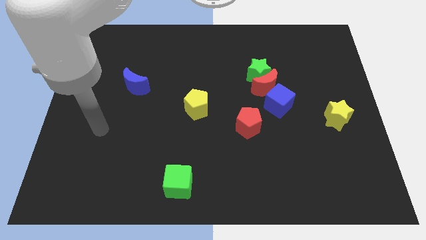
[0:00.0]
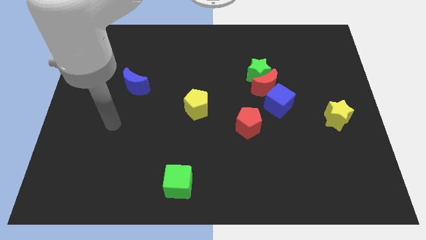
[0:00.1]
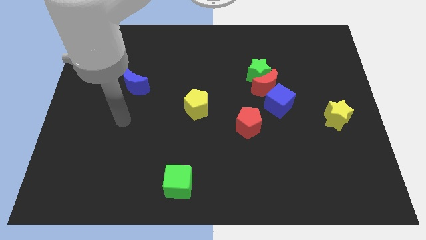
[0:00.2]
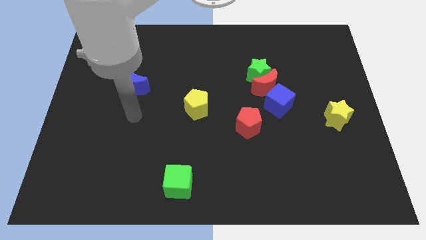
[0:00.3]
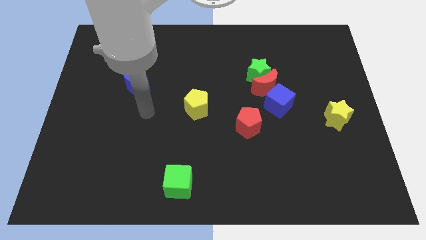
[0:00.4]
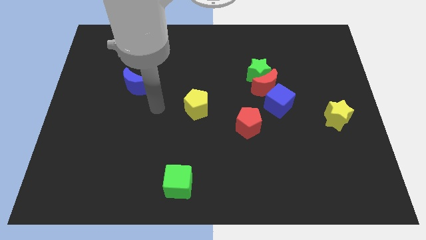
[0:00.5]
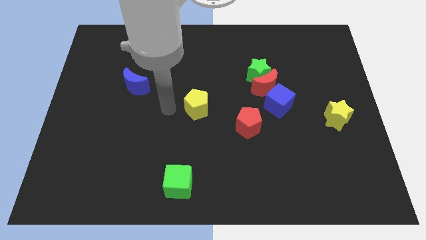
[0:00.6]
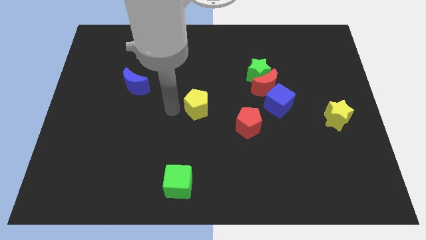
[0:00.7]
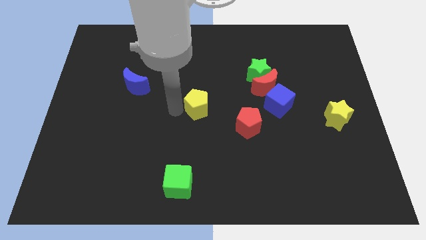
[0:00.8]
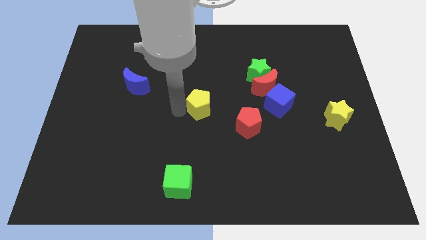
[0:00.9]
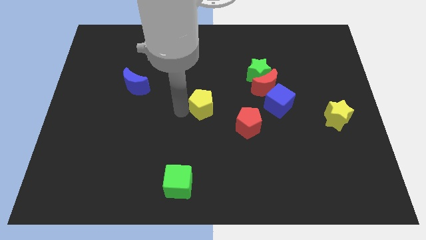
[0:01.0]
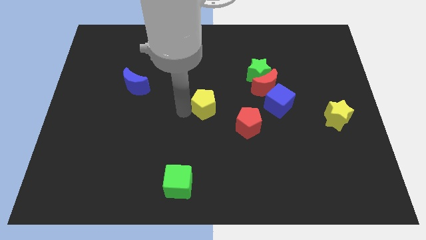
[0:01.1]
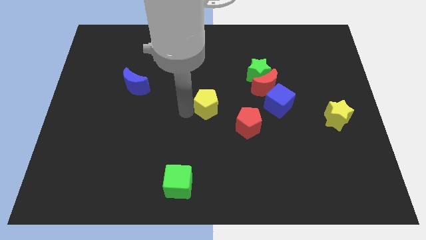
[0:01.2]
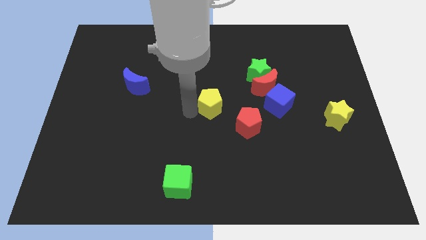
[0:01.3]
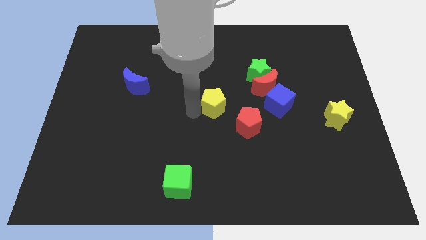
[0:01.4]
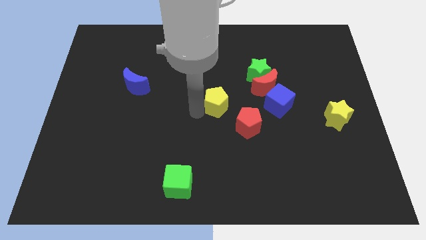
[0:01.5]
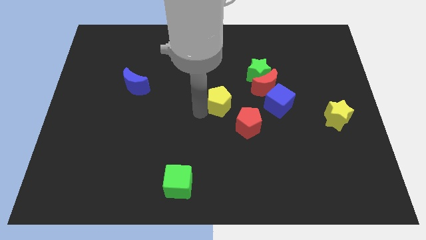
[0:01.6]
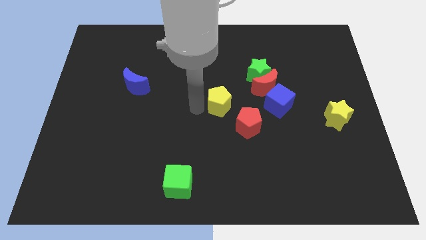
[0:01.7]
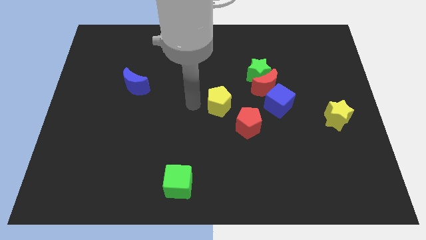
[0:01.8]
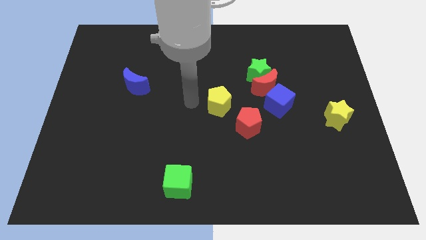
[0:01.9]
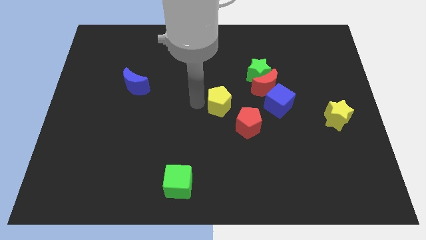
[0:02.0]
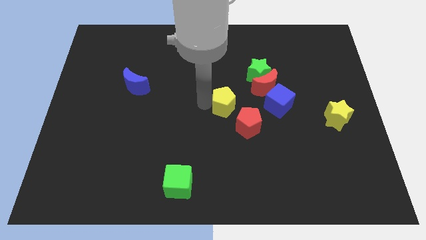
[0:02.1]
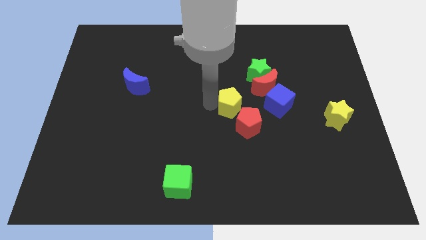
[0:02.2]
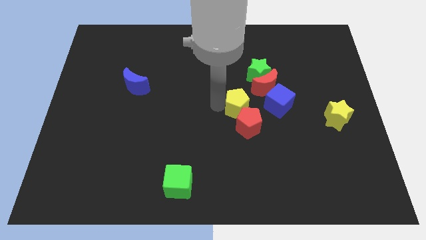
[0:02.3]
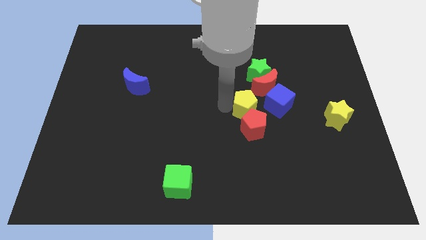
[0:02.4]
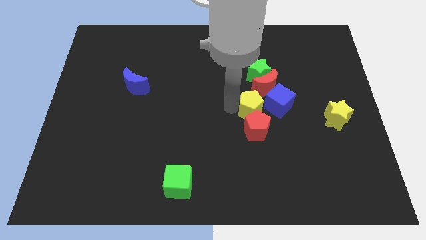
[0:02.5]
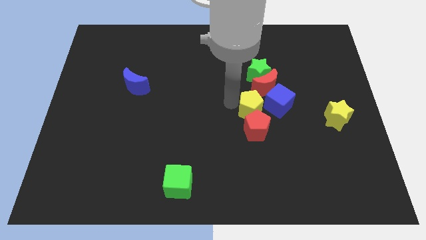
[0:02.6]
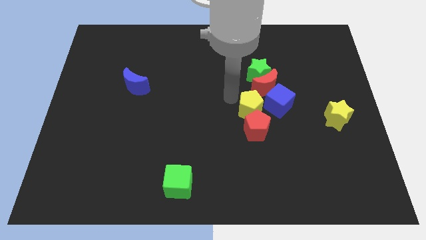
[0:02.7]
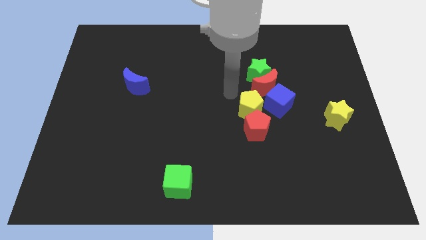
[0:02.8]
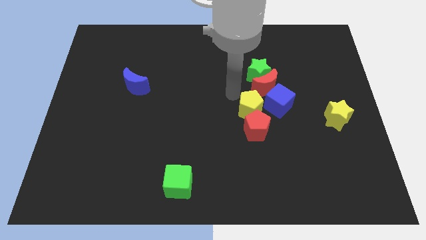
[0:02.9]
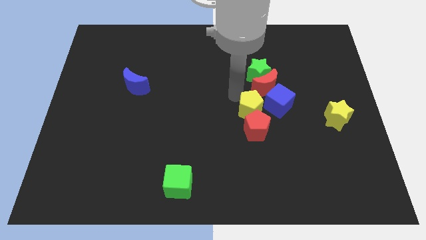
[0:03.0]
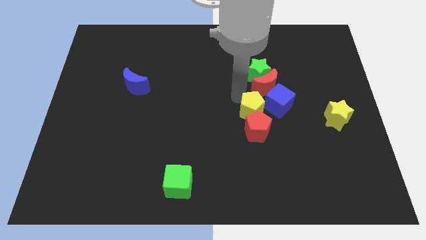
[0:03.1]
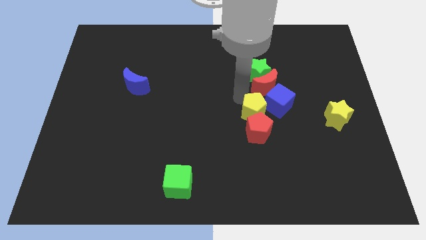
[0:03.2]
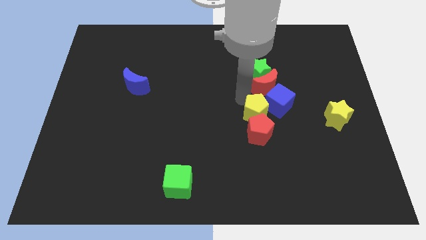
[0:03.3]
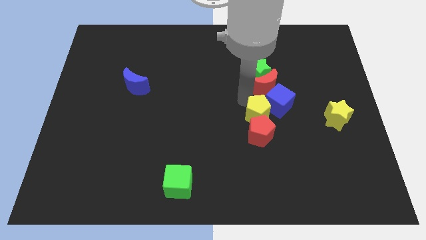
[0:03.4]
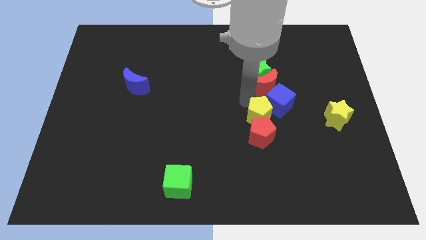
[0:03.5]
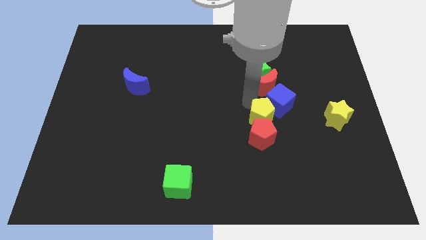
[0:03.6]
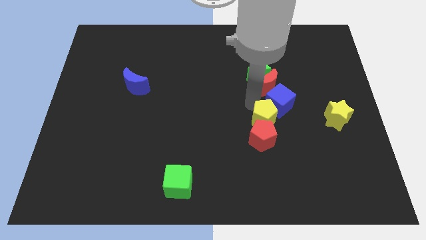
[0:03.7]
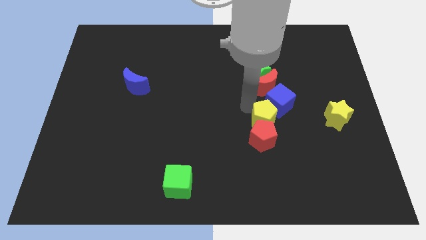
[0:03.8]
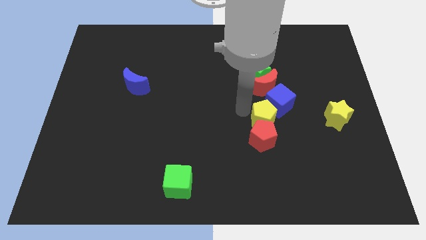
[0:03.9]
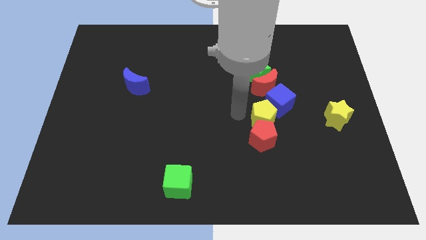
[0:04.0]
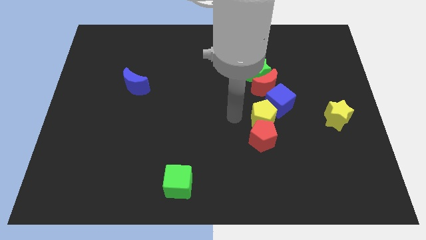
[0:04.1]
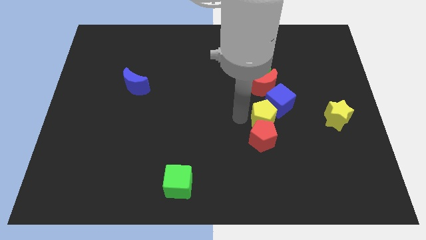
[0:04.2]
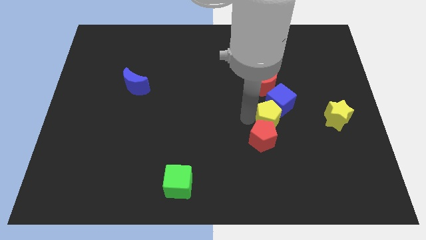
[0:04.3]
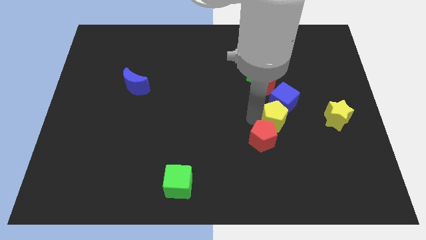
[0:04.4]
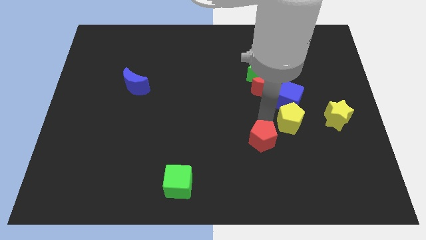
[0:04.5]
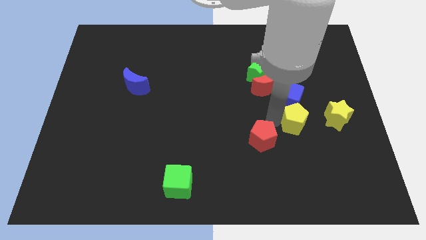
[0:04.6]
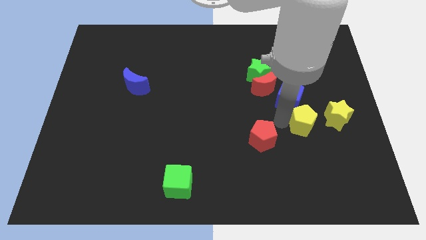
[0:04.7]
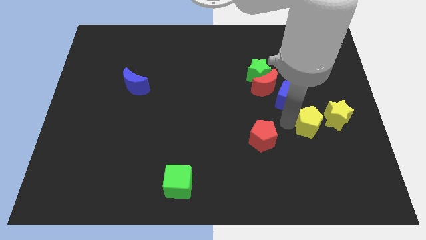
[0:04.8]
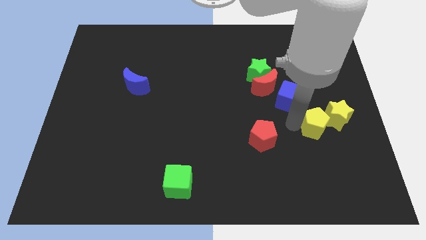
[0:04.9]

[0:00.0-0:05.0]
push the yellow pentagon to the yellow star

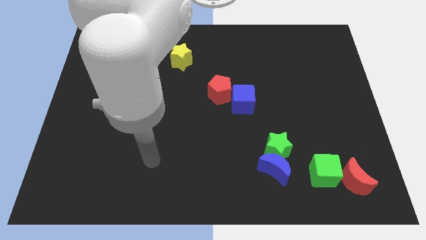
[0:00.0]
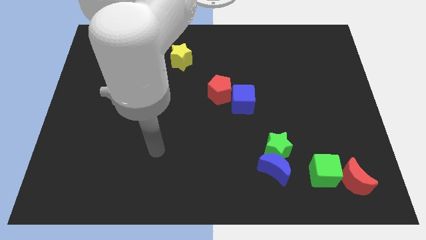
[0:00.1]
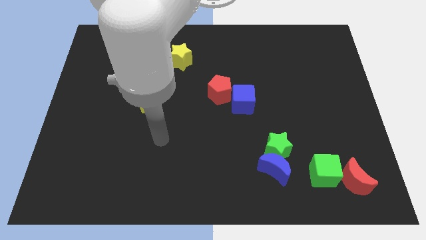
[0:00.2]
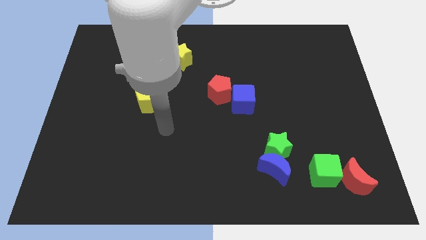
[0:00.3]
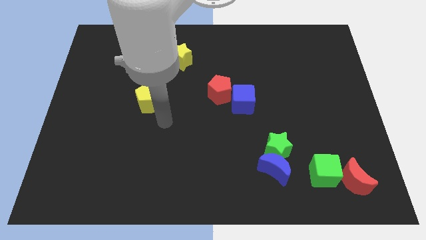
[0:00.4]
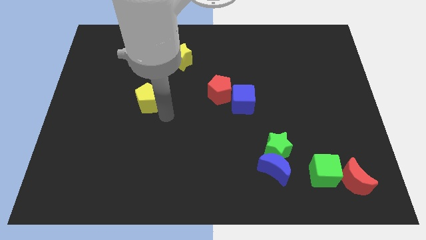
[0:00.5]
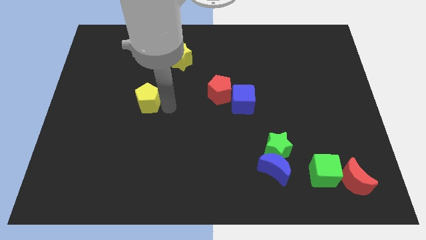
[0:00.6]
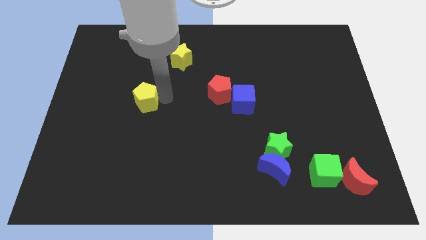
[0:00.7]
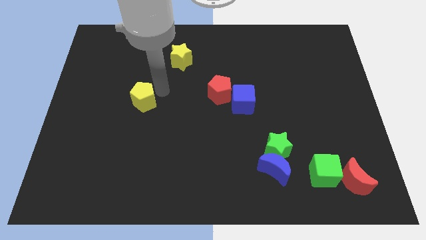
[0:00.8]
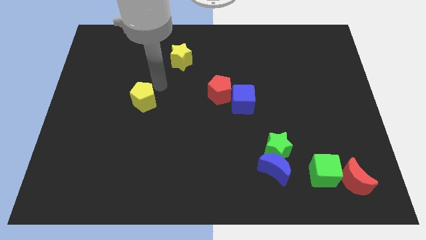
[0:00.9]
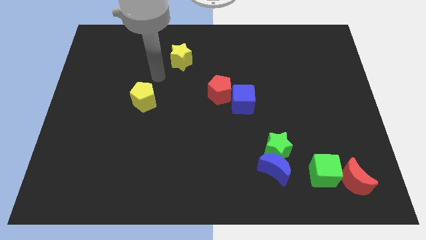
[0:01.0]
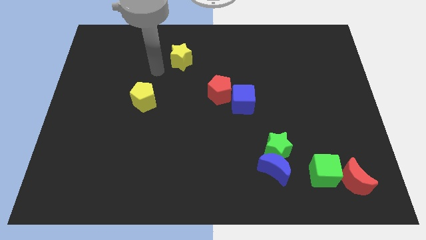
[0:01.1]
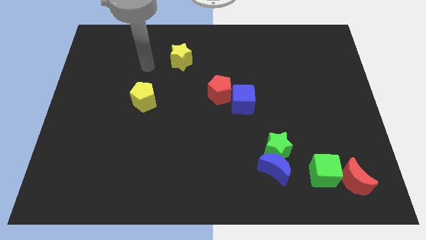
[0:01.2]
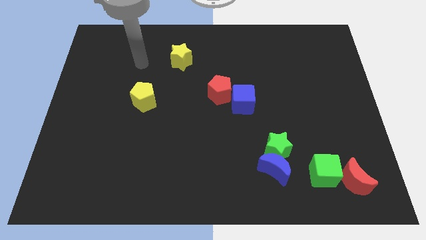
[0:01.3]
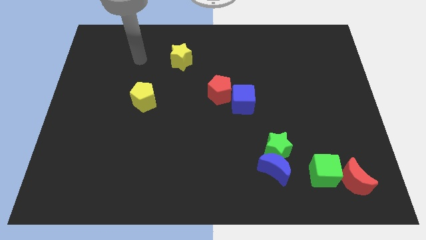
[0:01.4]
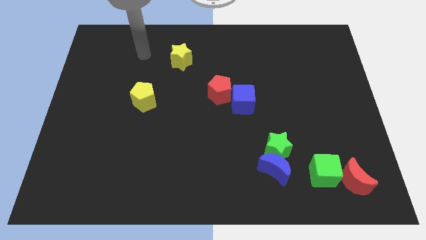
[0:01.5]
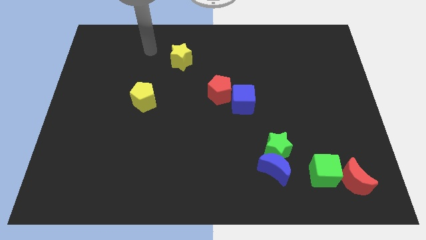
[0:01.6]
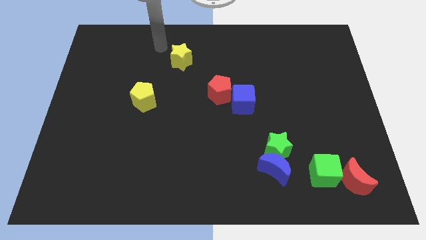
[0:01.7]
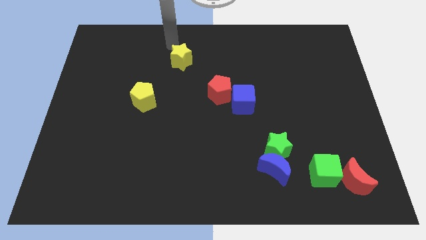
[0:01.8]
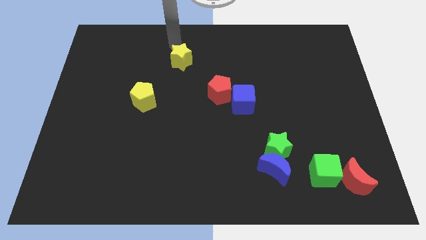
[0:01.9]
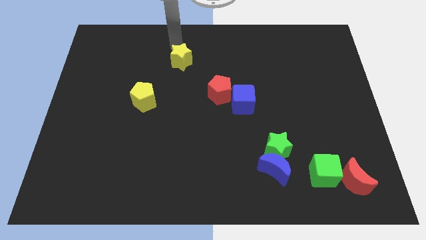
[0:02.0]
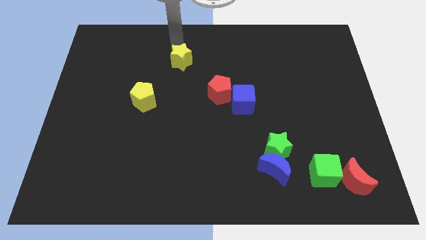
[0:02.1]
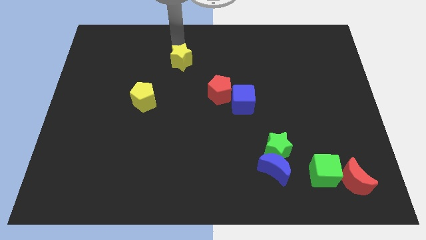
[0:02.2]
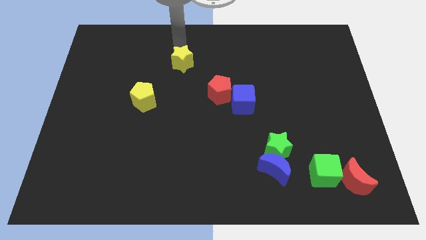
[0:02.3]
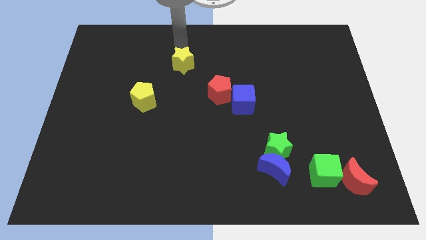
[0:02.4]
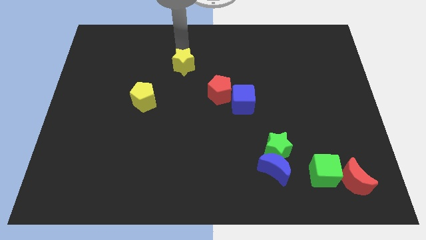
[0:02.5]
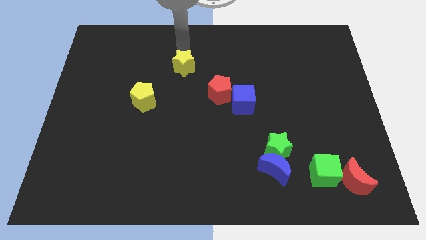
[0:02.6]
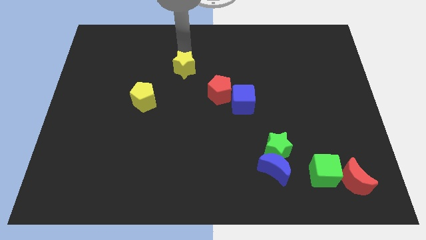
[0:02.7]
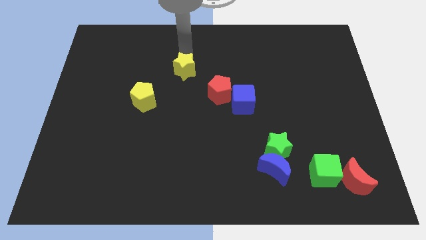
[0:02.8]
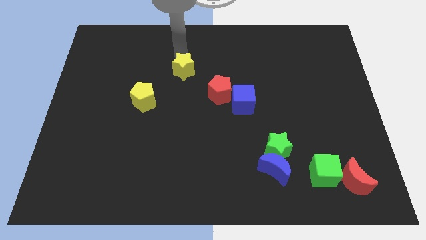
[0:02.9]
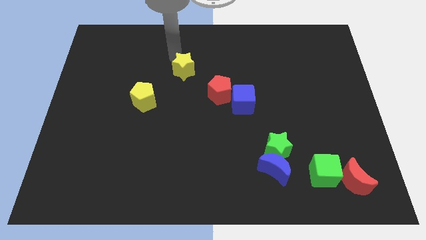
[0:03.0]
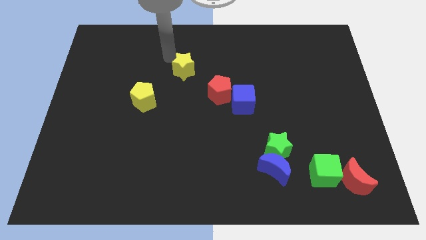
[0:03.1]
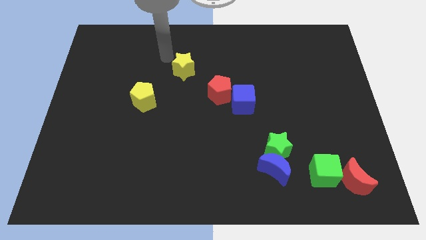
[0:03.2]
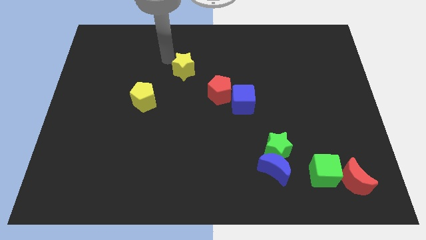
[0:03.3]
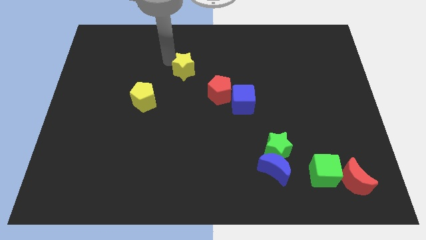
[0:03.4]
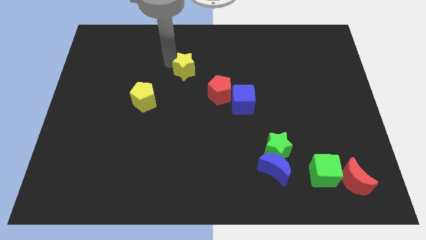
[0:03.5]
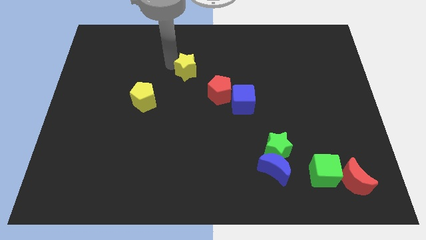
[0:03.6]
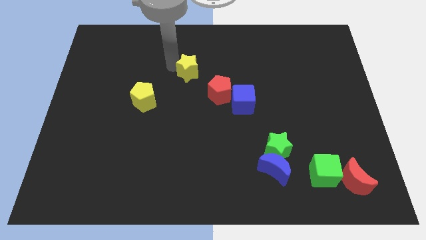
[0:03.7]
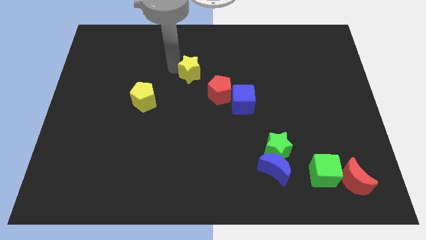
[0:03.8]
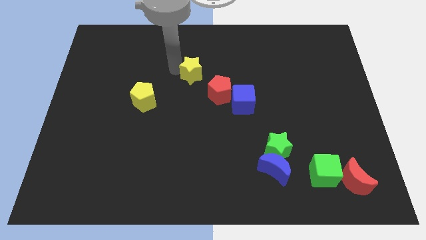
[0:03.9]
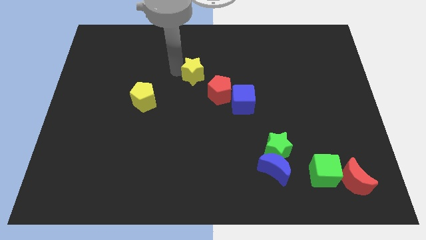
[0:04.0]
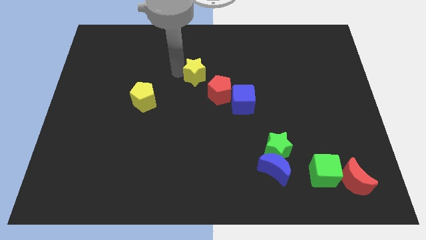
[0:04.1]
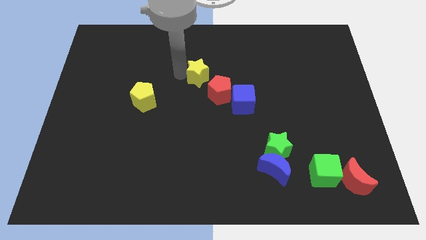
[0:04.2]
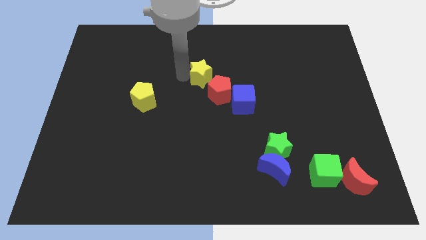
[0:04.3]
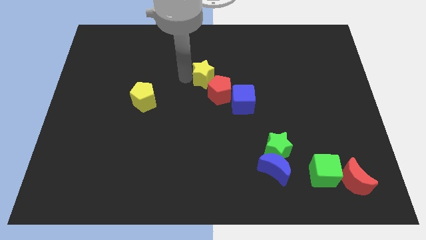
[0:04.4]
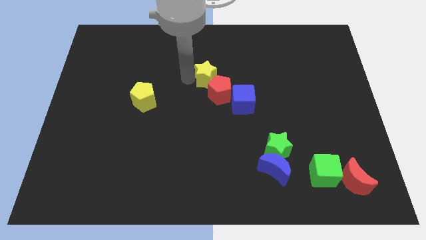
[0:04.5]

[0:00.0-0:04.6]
move the yellow star to the red pentagon
